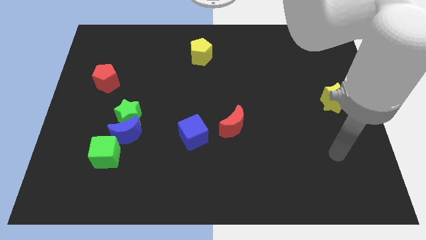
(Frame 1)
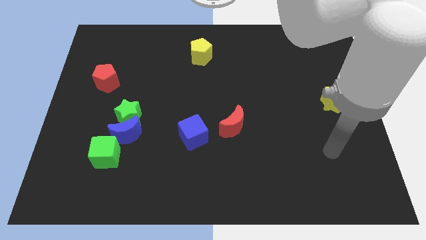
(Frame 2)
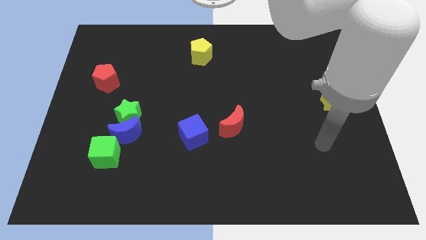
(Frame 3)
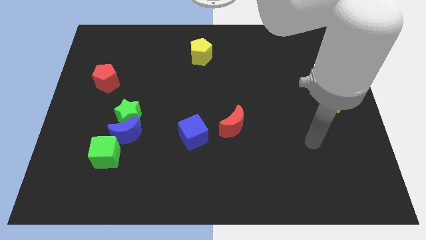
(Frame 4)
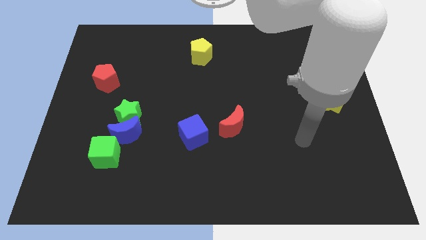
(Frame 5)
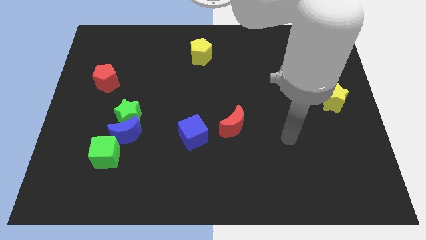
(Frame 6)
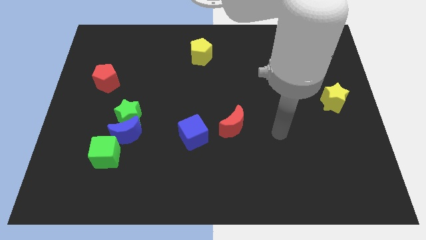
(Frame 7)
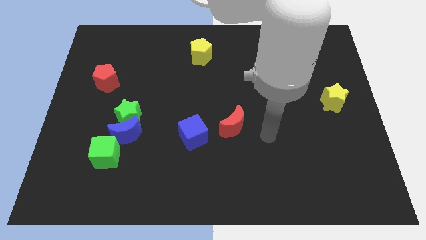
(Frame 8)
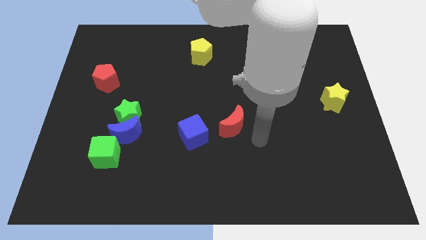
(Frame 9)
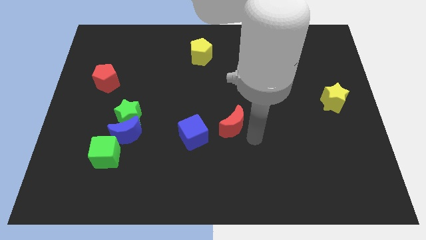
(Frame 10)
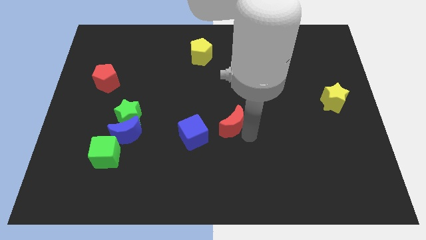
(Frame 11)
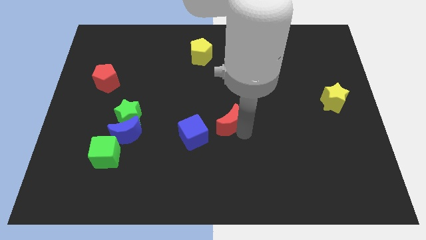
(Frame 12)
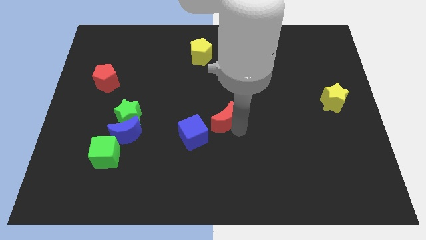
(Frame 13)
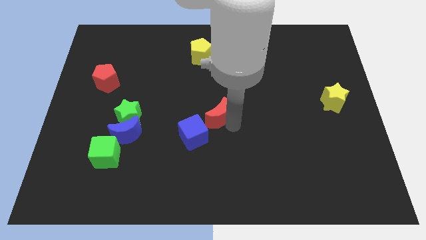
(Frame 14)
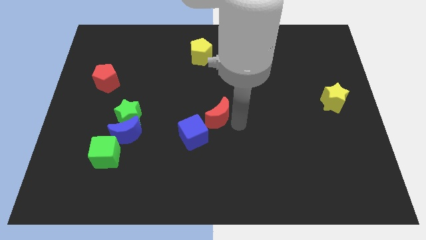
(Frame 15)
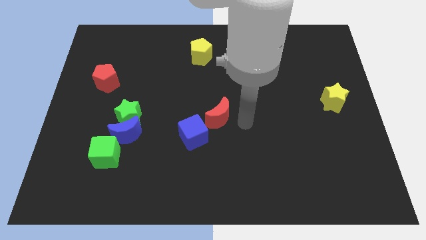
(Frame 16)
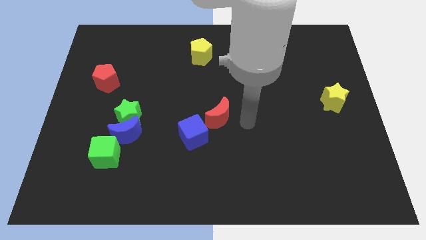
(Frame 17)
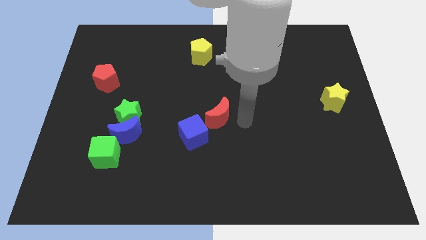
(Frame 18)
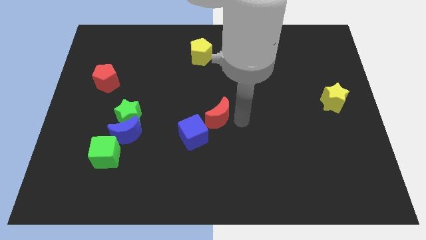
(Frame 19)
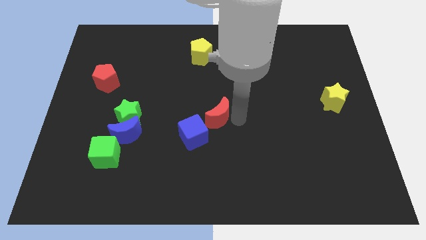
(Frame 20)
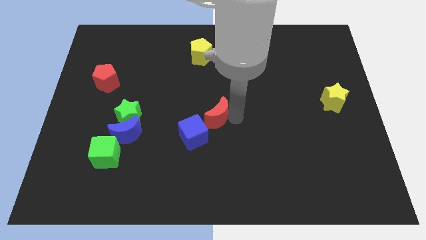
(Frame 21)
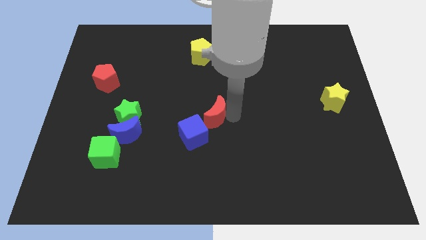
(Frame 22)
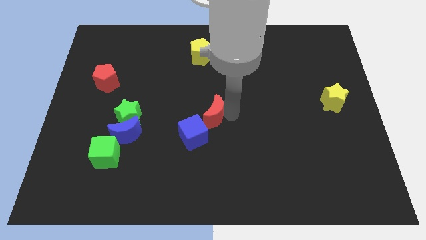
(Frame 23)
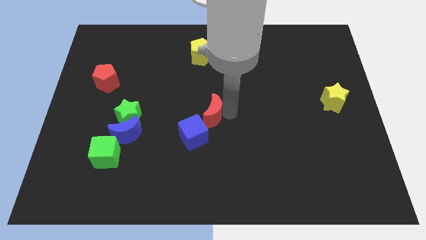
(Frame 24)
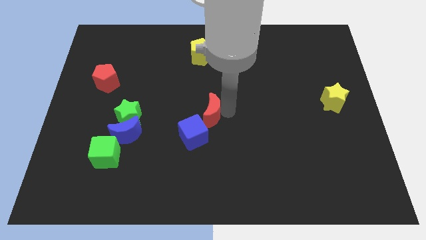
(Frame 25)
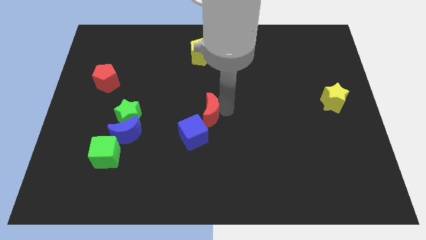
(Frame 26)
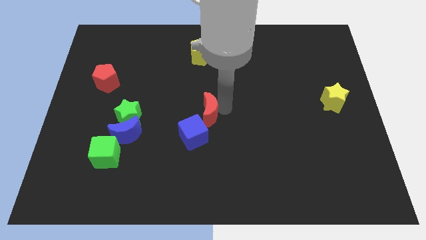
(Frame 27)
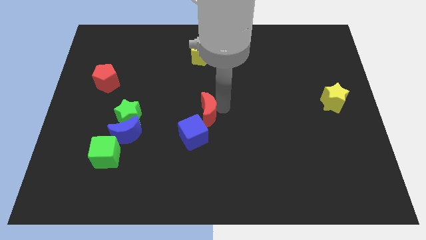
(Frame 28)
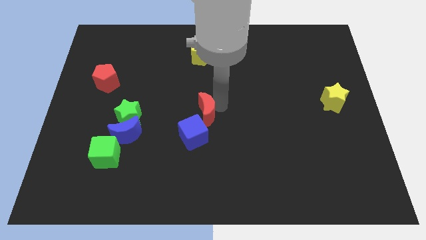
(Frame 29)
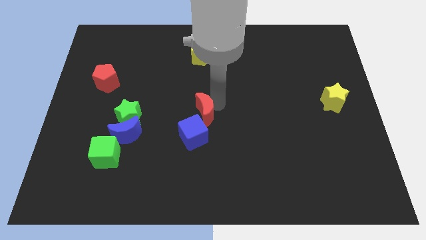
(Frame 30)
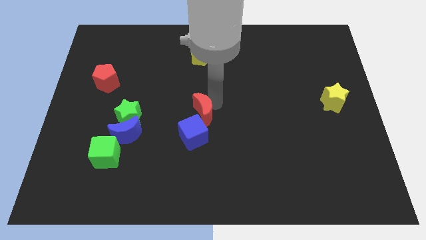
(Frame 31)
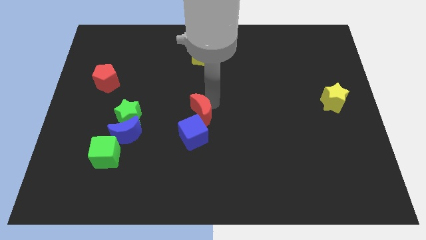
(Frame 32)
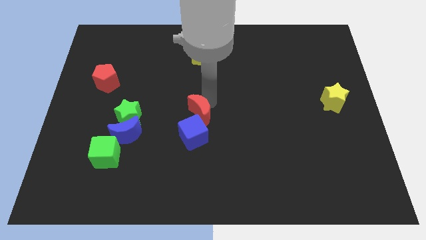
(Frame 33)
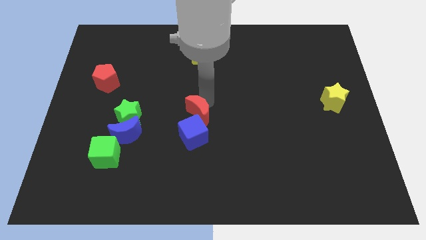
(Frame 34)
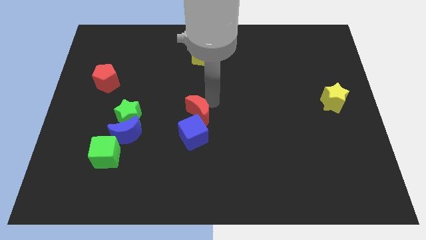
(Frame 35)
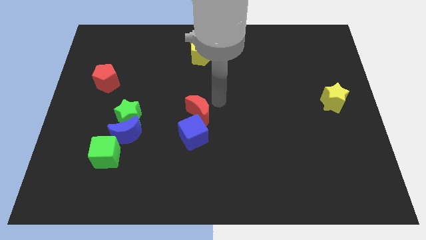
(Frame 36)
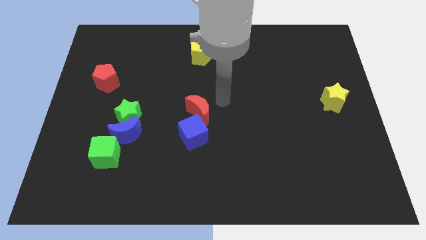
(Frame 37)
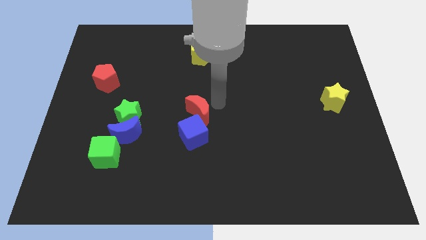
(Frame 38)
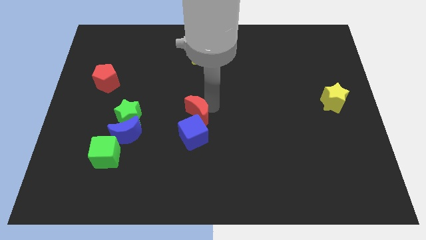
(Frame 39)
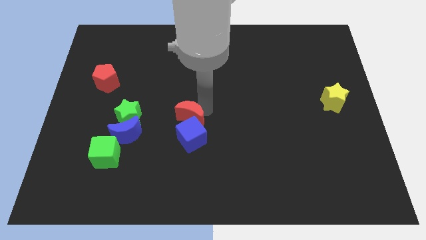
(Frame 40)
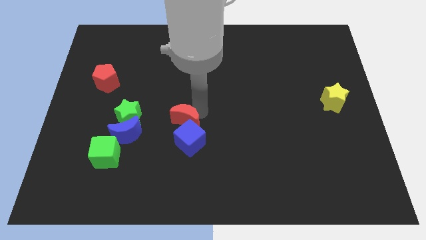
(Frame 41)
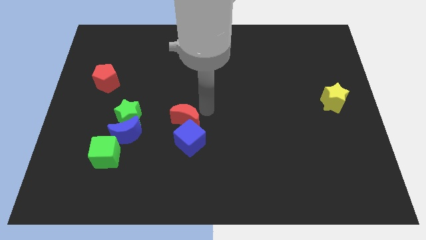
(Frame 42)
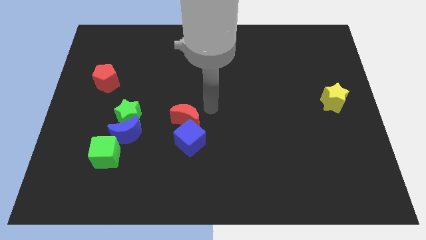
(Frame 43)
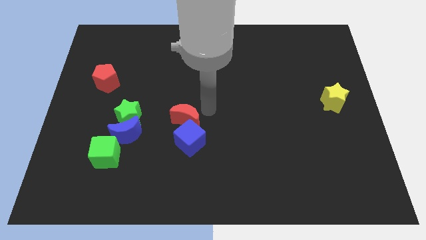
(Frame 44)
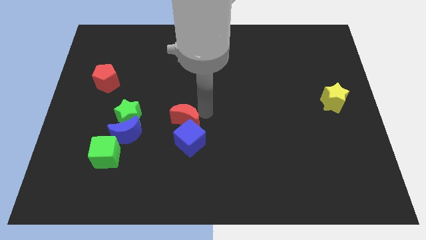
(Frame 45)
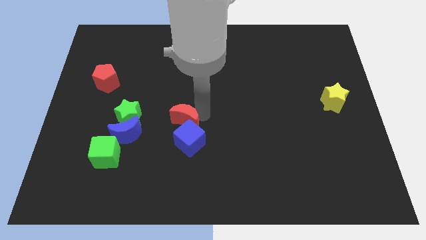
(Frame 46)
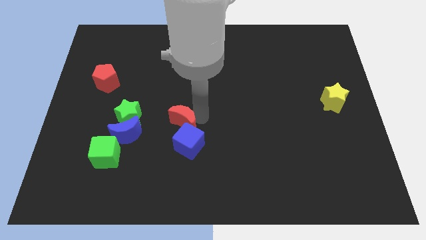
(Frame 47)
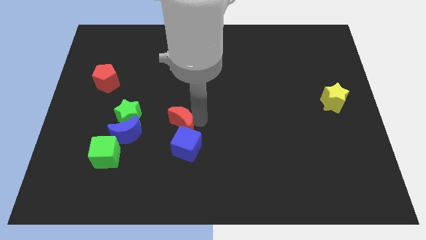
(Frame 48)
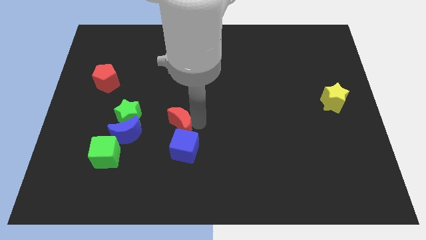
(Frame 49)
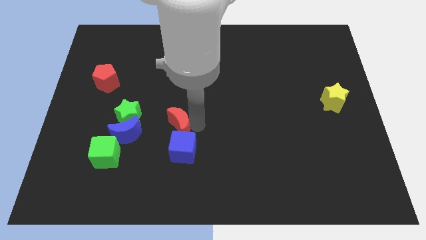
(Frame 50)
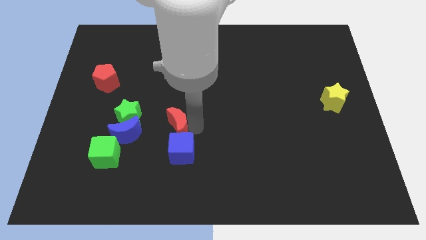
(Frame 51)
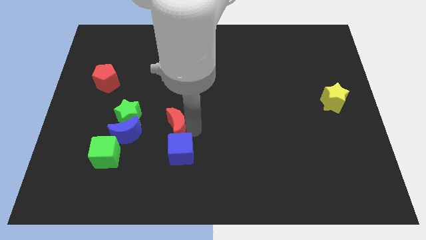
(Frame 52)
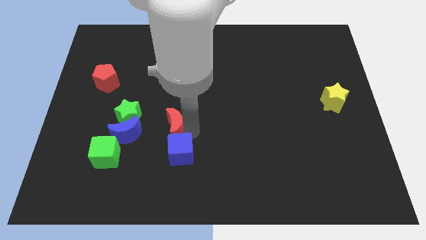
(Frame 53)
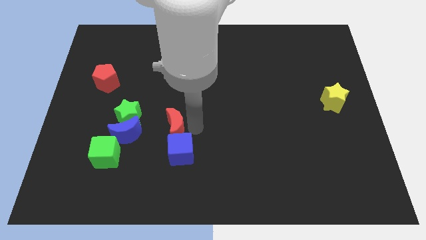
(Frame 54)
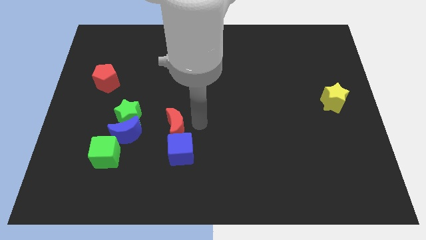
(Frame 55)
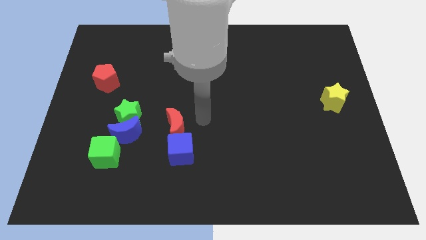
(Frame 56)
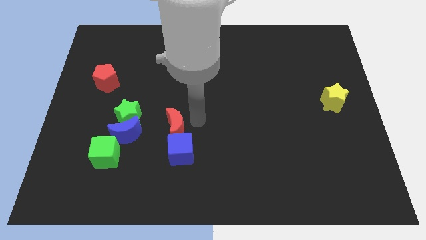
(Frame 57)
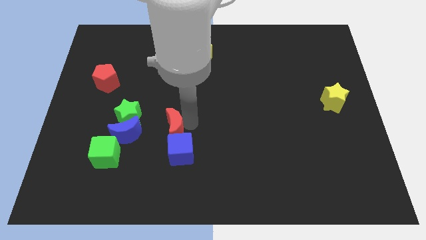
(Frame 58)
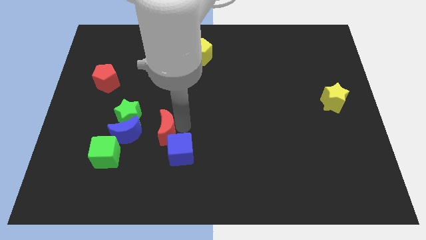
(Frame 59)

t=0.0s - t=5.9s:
move the red moon to the bottom right of the green star

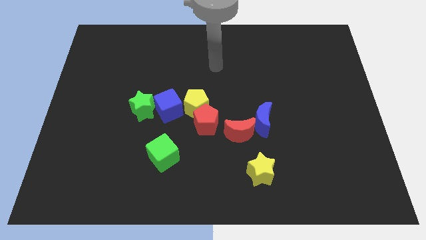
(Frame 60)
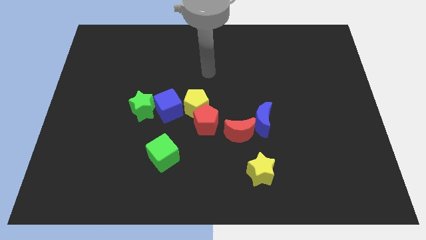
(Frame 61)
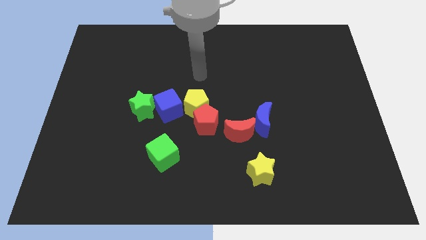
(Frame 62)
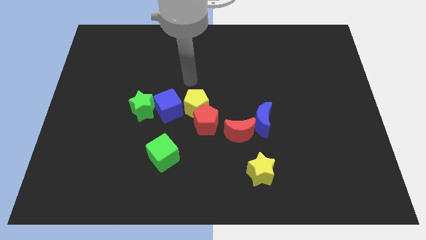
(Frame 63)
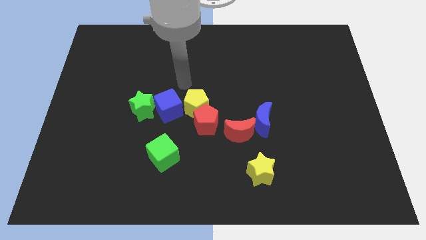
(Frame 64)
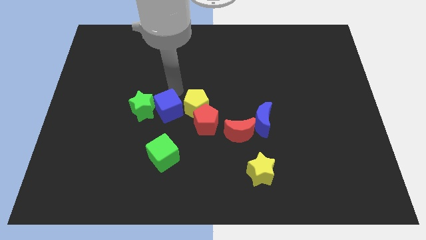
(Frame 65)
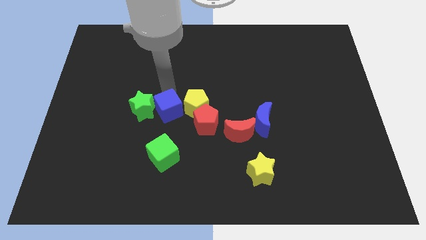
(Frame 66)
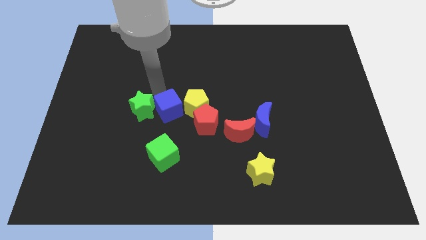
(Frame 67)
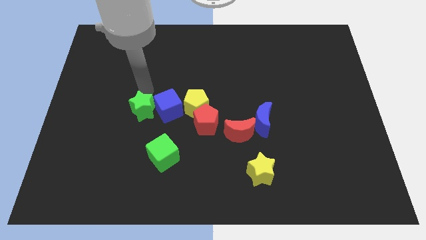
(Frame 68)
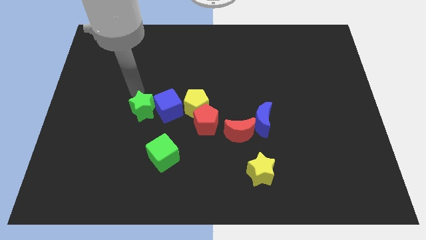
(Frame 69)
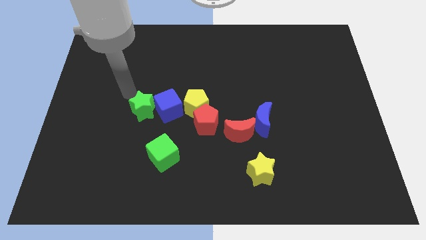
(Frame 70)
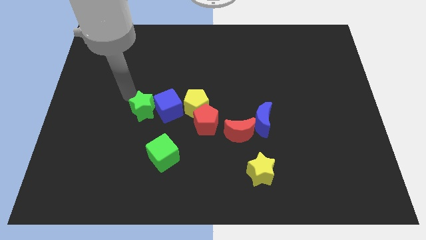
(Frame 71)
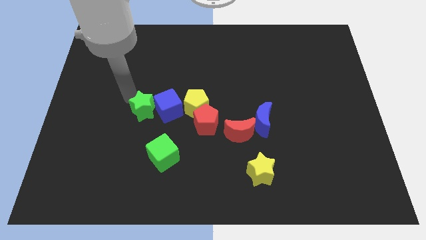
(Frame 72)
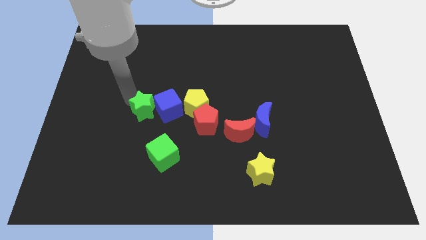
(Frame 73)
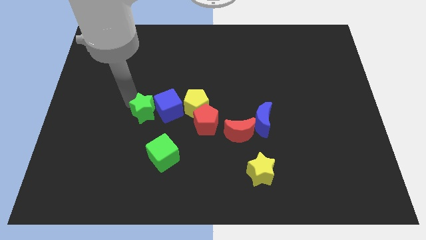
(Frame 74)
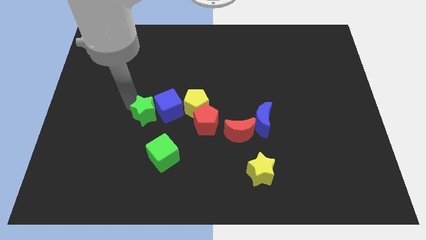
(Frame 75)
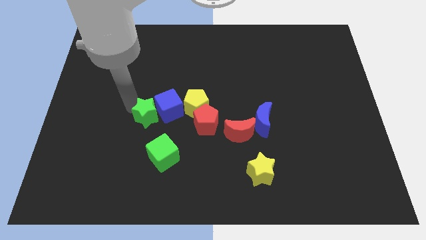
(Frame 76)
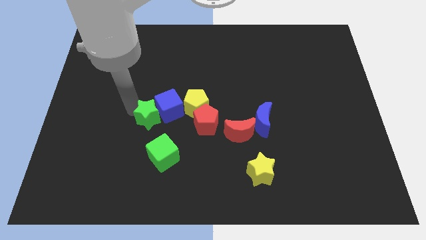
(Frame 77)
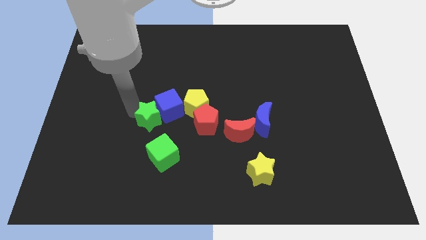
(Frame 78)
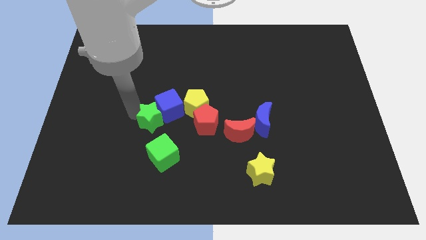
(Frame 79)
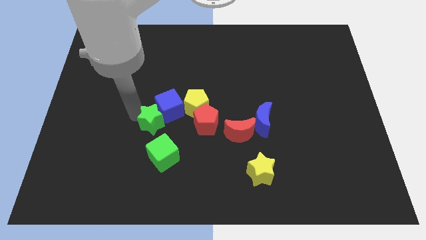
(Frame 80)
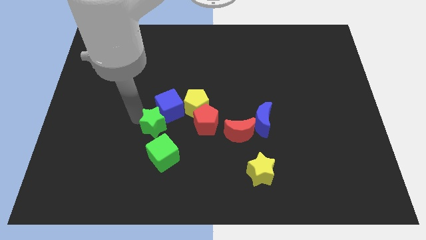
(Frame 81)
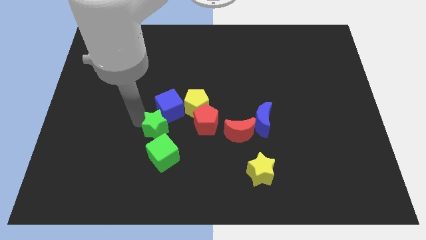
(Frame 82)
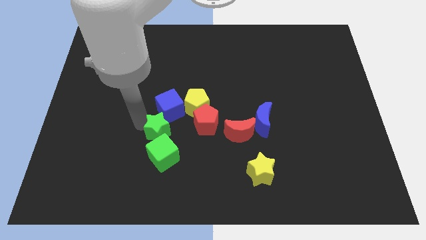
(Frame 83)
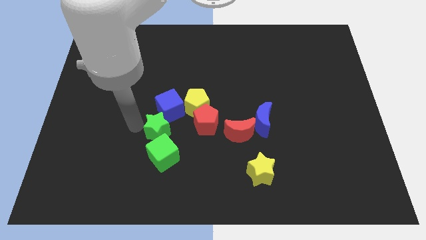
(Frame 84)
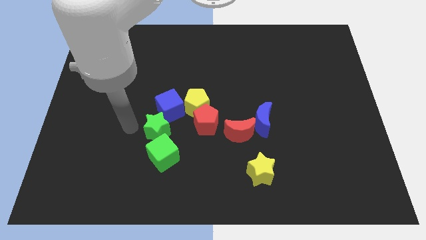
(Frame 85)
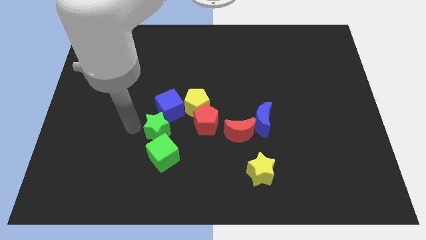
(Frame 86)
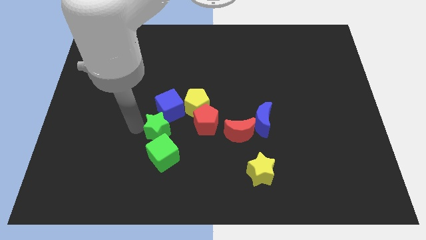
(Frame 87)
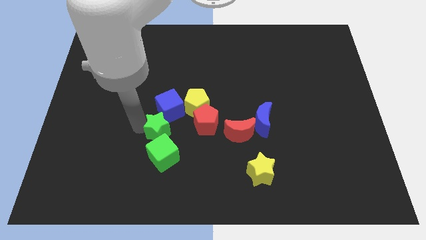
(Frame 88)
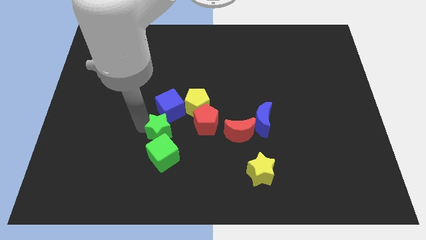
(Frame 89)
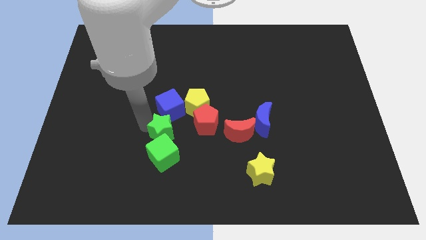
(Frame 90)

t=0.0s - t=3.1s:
slide the green star to the top right side of the green cube
